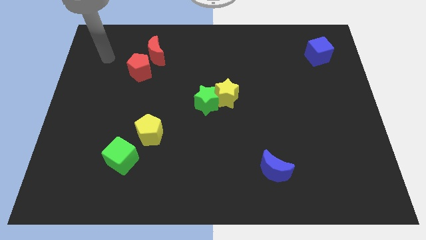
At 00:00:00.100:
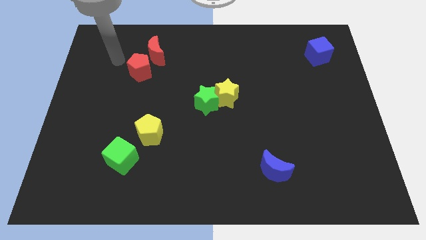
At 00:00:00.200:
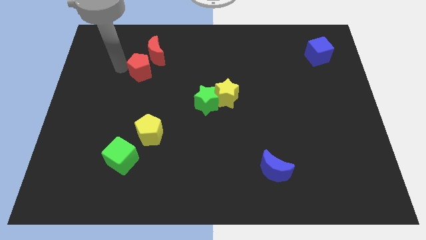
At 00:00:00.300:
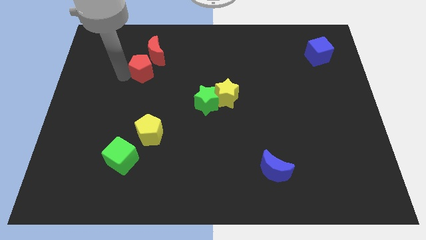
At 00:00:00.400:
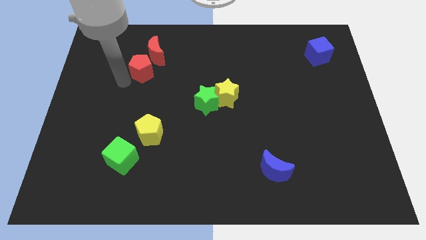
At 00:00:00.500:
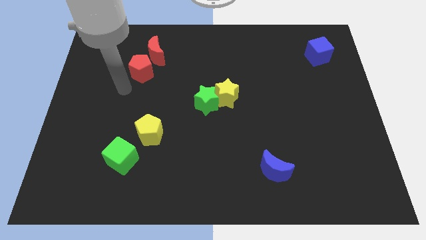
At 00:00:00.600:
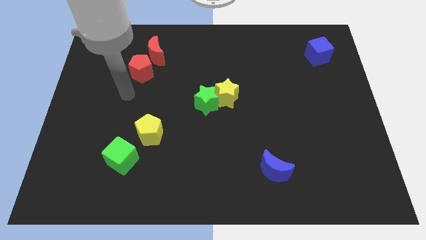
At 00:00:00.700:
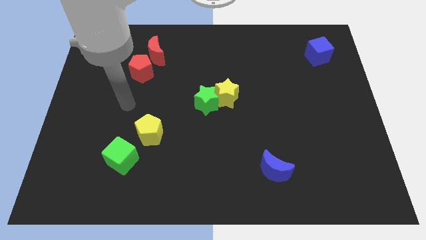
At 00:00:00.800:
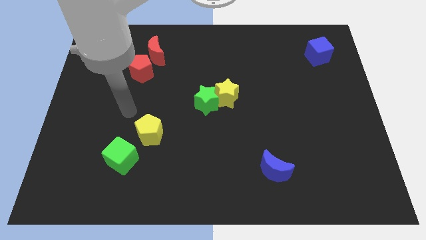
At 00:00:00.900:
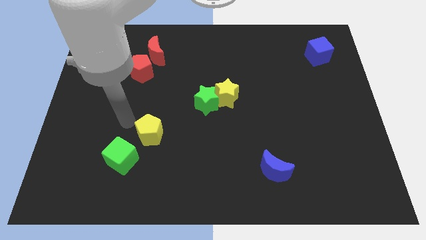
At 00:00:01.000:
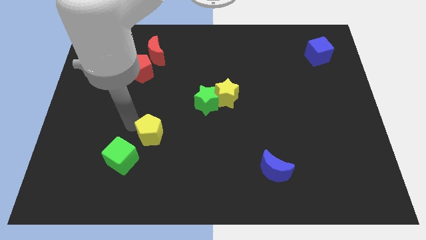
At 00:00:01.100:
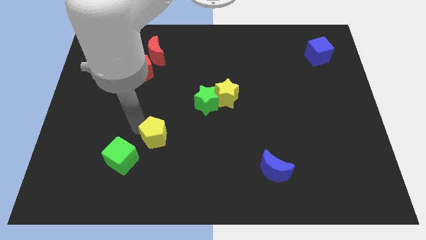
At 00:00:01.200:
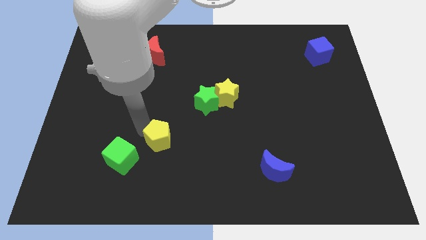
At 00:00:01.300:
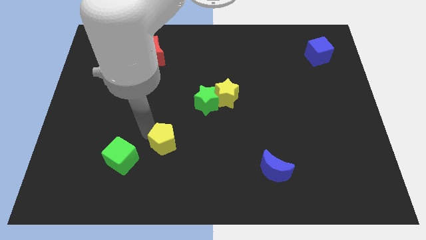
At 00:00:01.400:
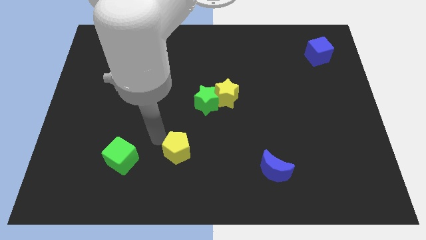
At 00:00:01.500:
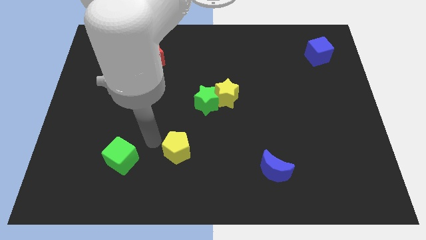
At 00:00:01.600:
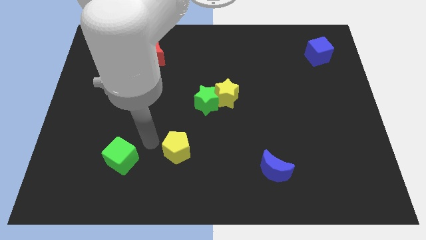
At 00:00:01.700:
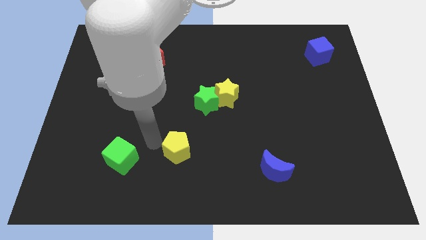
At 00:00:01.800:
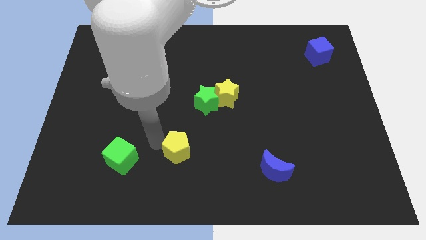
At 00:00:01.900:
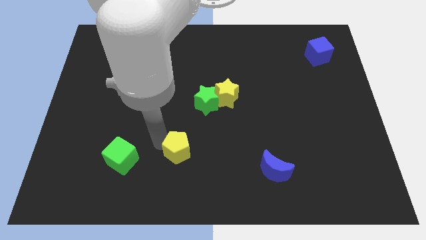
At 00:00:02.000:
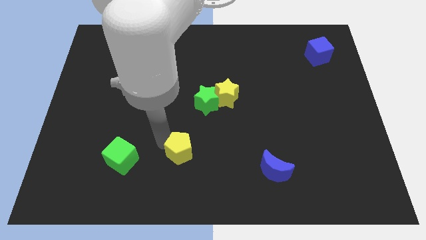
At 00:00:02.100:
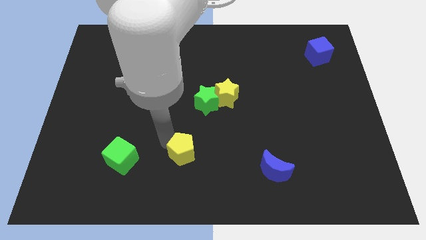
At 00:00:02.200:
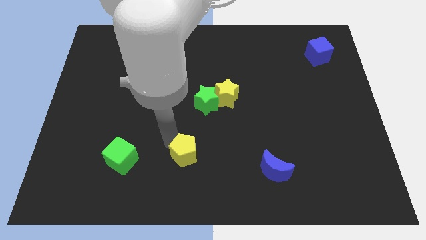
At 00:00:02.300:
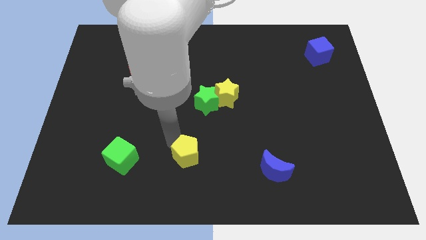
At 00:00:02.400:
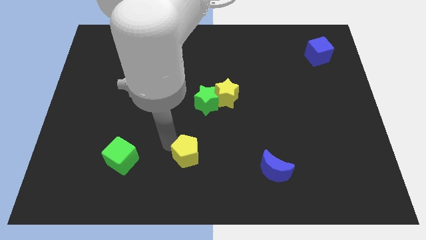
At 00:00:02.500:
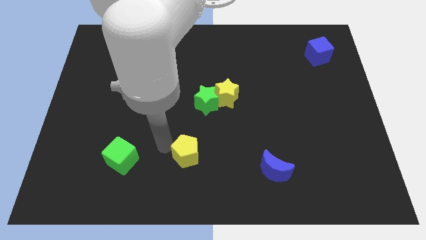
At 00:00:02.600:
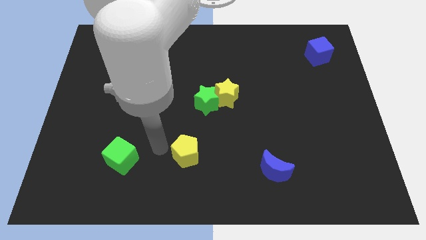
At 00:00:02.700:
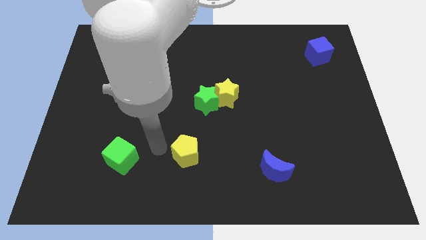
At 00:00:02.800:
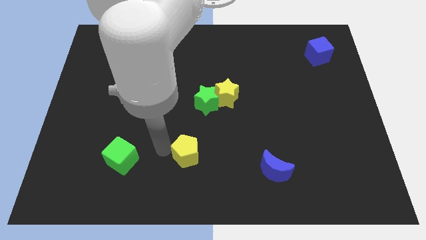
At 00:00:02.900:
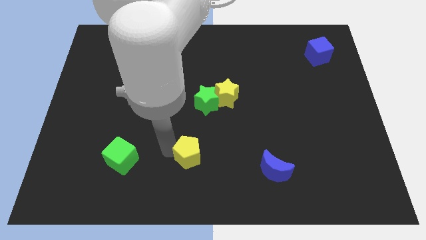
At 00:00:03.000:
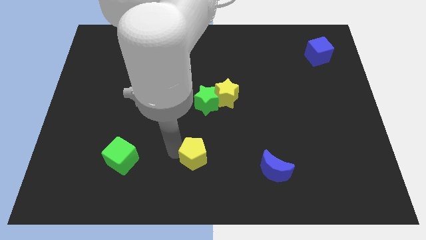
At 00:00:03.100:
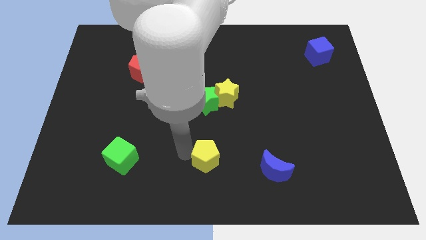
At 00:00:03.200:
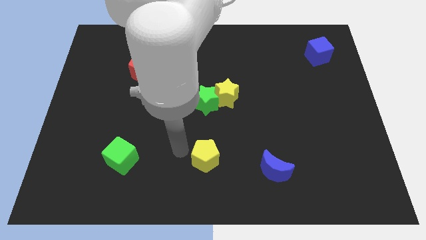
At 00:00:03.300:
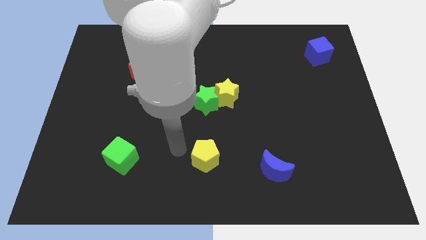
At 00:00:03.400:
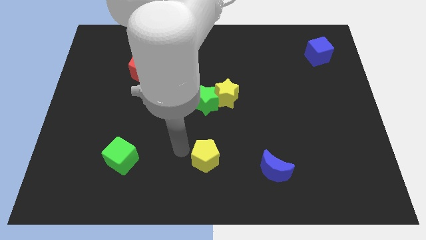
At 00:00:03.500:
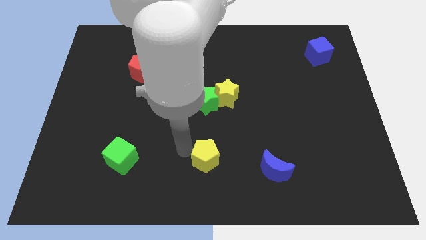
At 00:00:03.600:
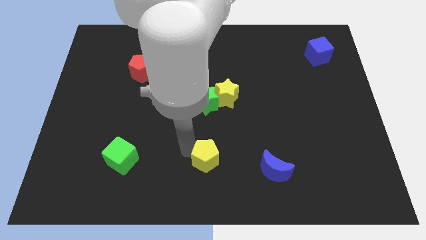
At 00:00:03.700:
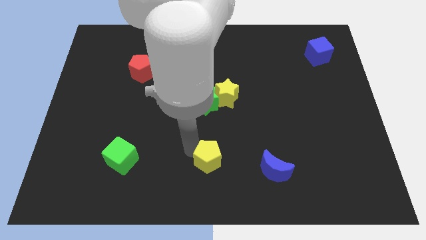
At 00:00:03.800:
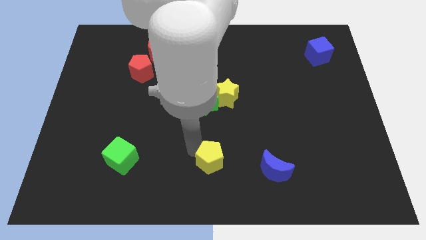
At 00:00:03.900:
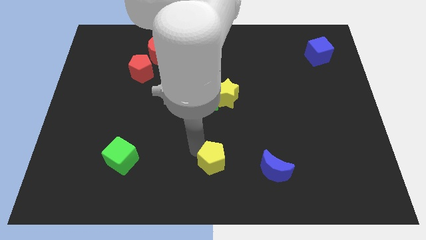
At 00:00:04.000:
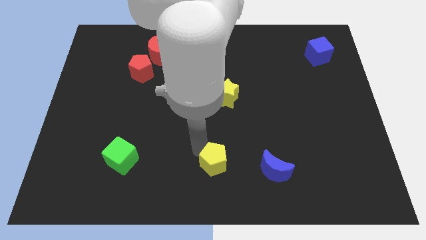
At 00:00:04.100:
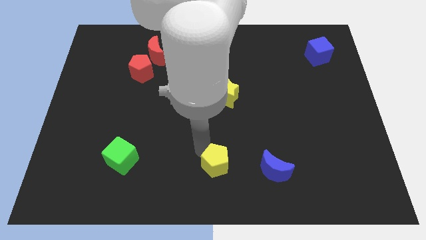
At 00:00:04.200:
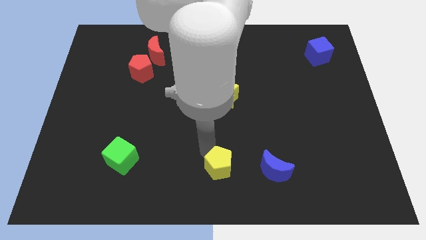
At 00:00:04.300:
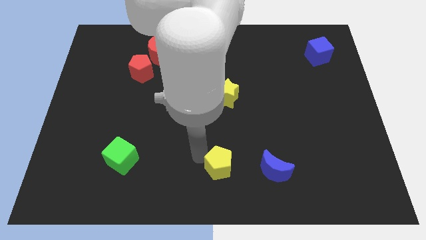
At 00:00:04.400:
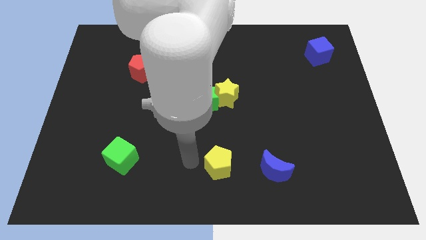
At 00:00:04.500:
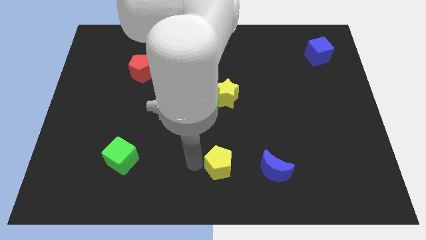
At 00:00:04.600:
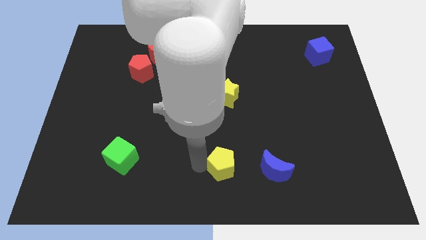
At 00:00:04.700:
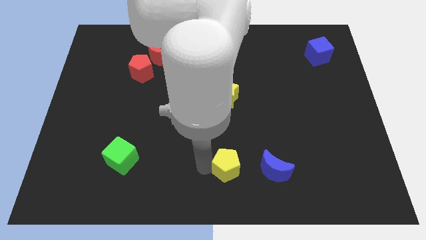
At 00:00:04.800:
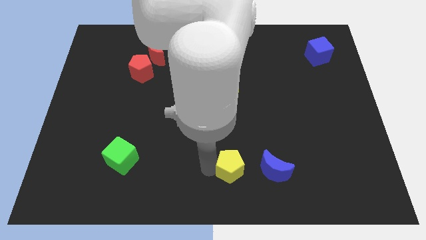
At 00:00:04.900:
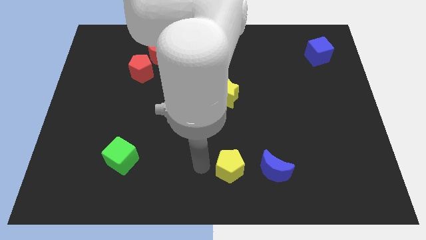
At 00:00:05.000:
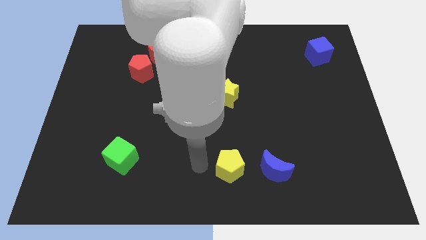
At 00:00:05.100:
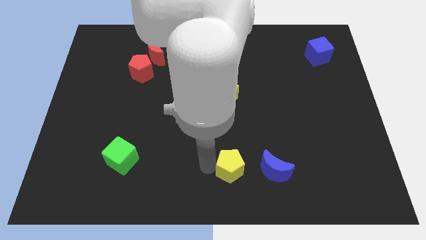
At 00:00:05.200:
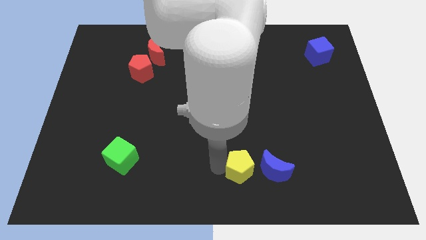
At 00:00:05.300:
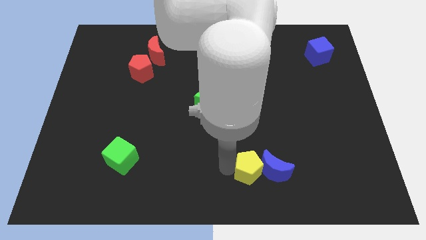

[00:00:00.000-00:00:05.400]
push the yellow pentagon close to the blue moon
